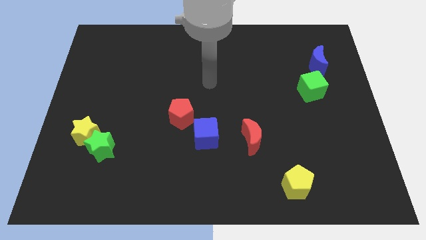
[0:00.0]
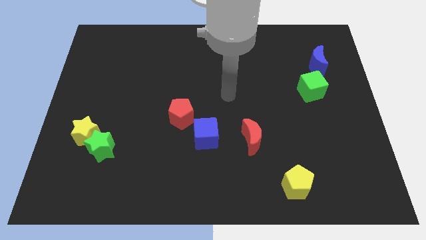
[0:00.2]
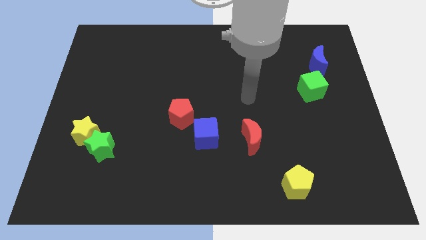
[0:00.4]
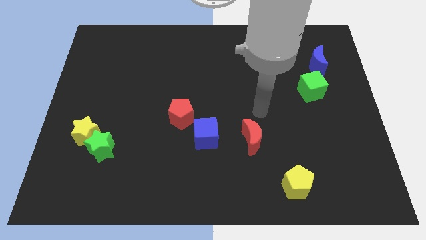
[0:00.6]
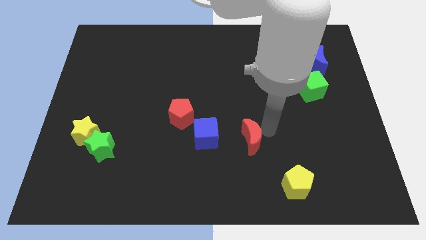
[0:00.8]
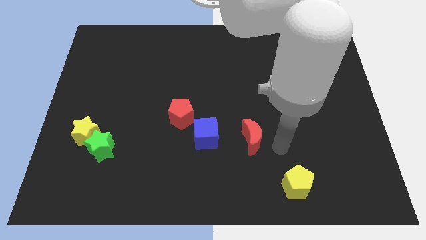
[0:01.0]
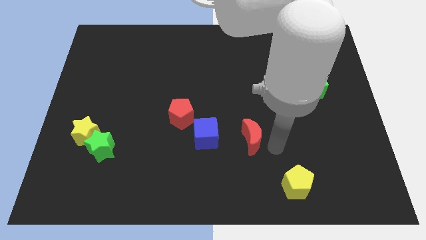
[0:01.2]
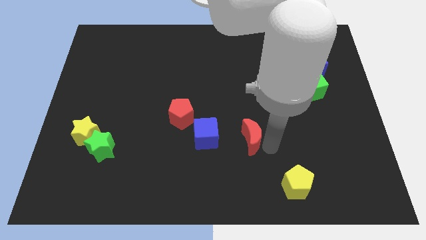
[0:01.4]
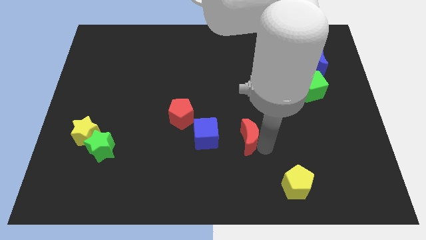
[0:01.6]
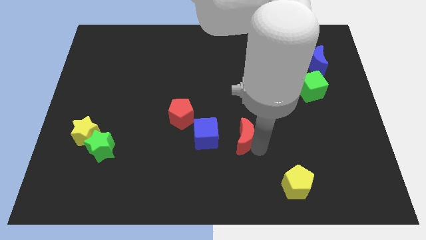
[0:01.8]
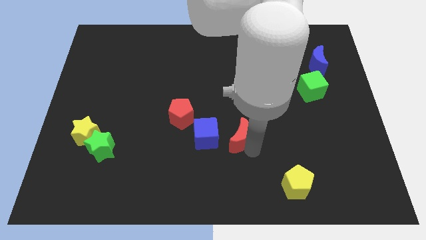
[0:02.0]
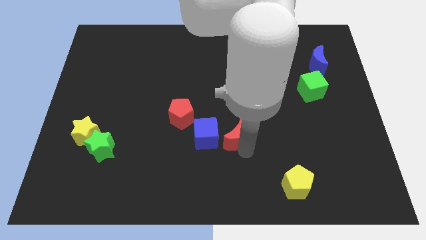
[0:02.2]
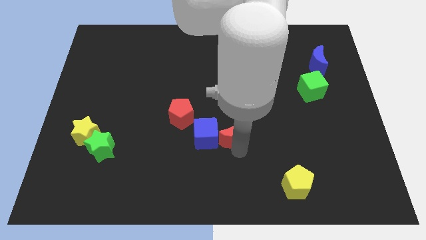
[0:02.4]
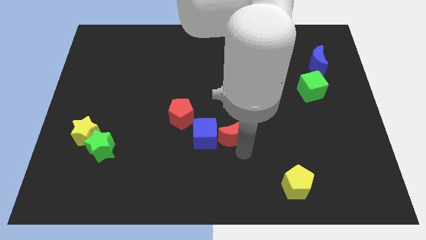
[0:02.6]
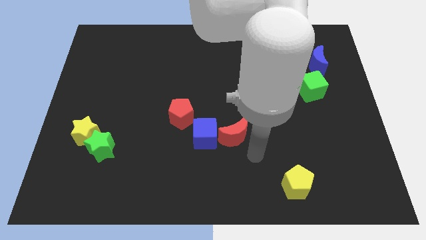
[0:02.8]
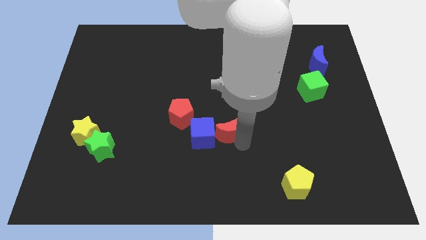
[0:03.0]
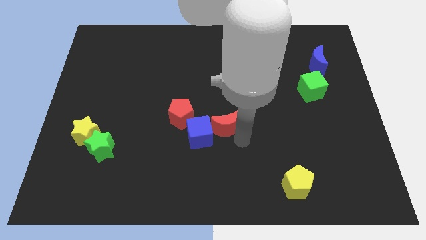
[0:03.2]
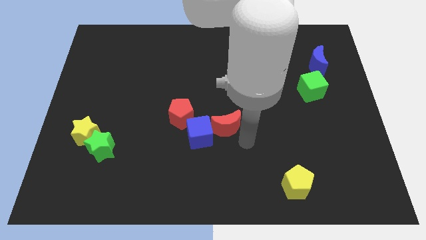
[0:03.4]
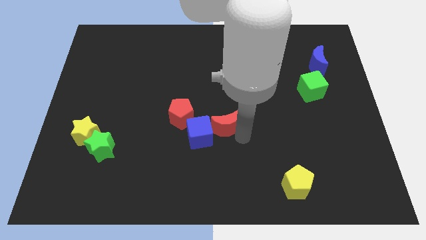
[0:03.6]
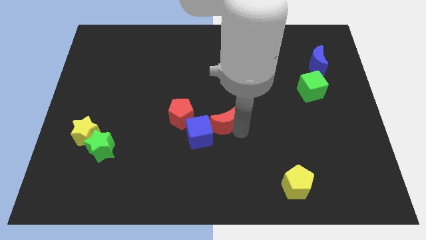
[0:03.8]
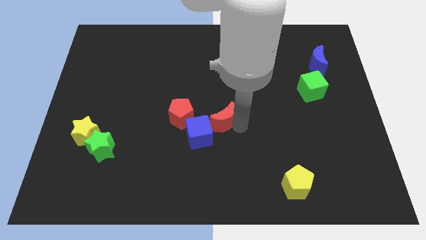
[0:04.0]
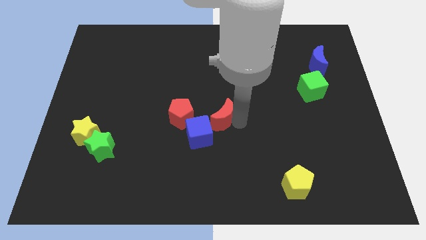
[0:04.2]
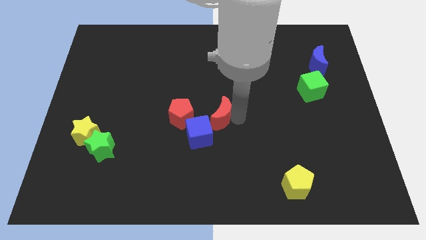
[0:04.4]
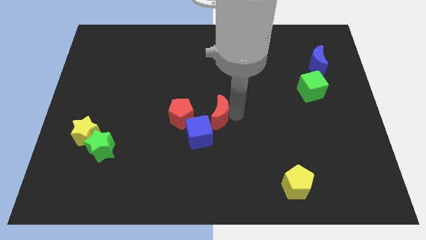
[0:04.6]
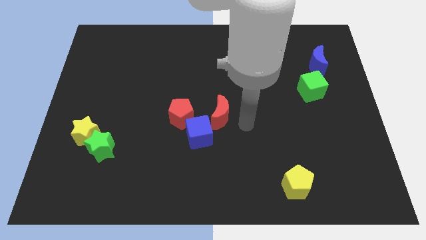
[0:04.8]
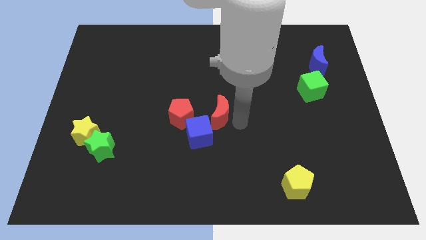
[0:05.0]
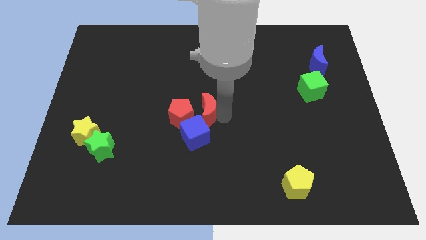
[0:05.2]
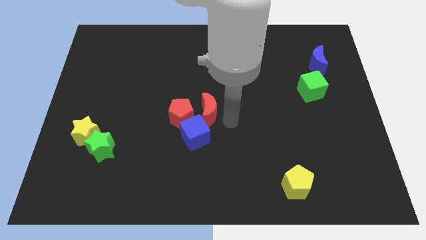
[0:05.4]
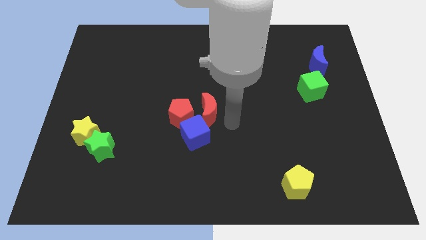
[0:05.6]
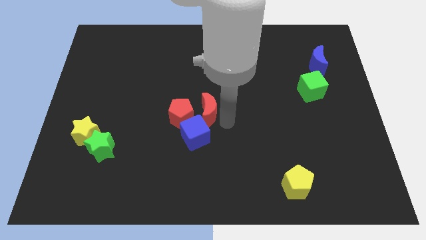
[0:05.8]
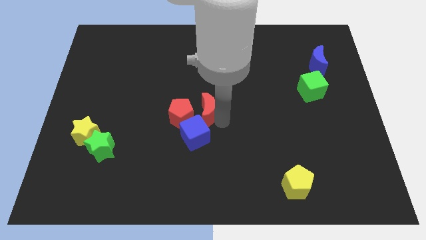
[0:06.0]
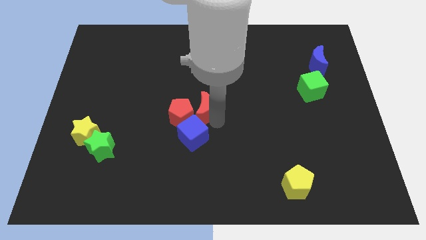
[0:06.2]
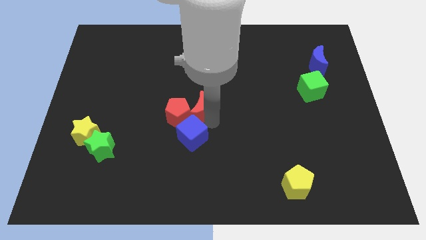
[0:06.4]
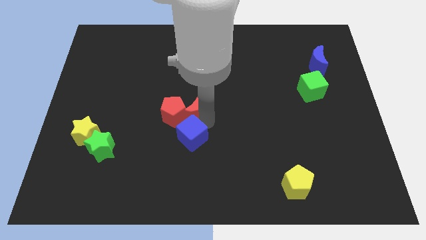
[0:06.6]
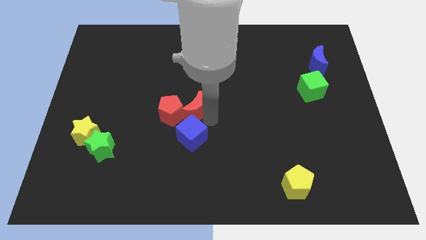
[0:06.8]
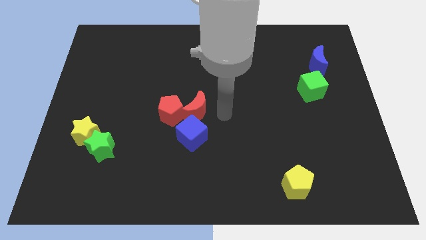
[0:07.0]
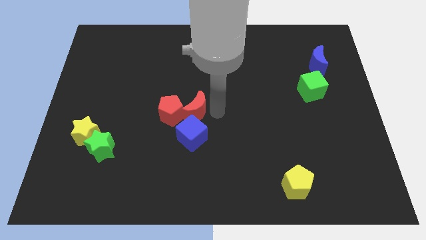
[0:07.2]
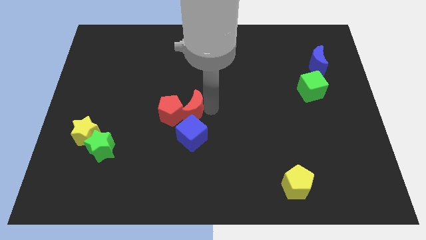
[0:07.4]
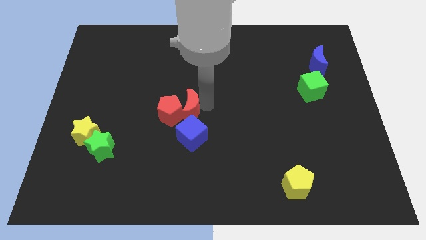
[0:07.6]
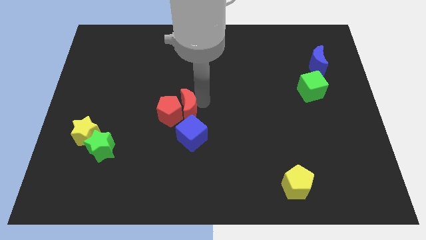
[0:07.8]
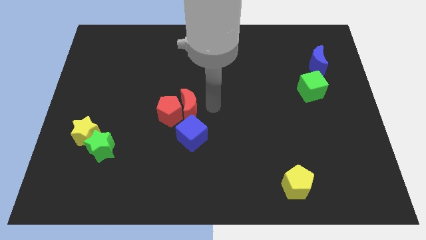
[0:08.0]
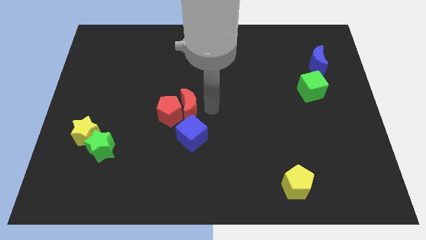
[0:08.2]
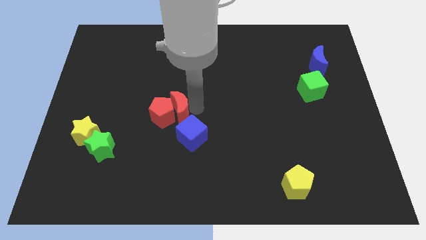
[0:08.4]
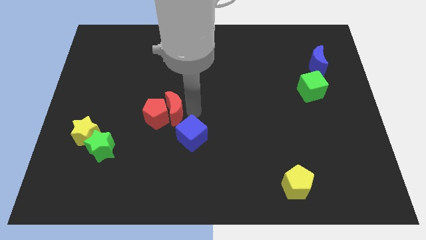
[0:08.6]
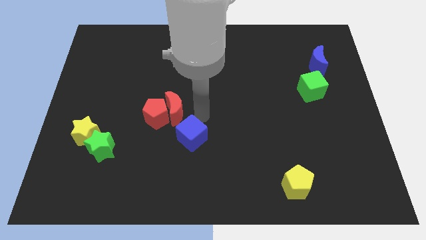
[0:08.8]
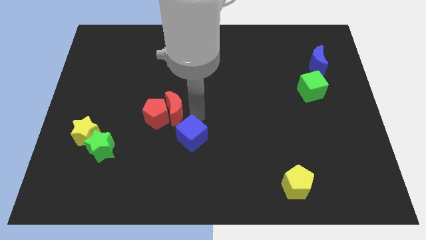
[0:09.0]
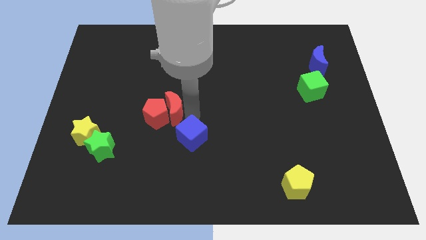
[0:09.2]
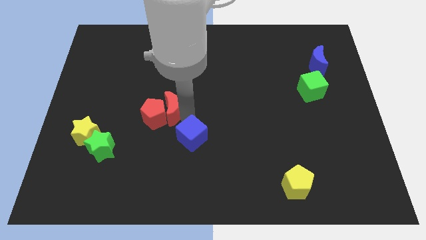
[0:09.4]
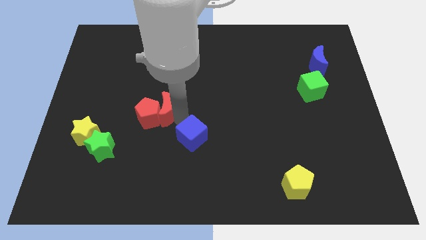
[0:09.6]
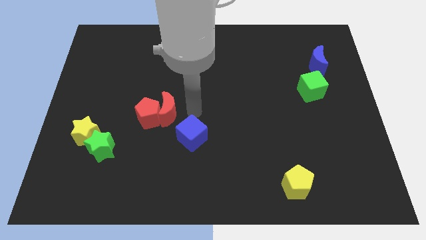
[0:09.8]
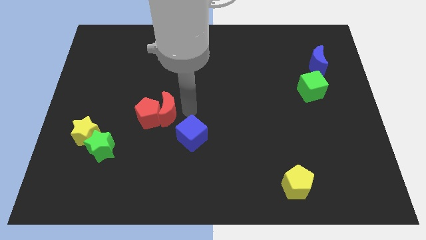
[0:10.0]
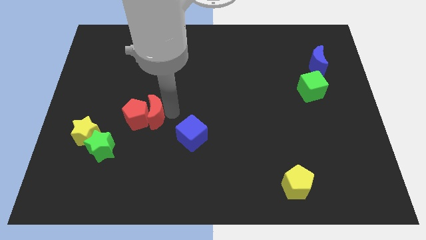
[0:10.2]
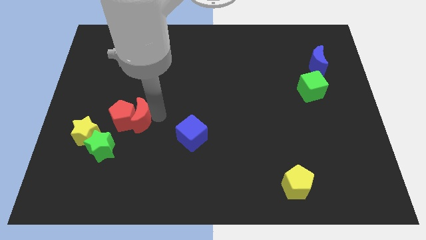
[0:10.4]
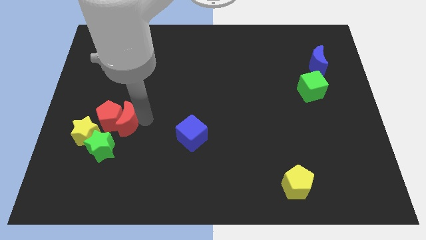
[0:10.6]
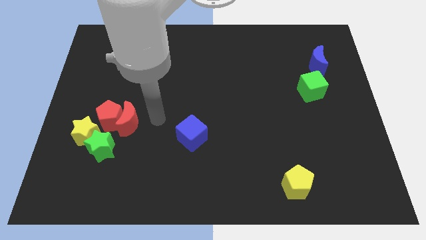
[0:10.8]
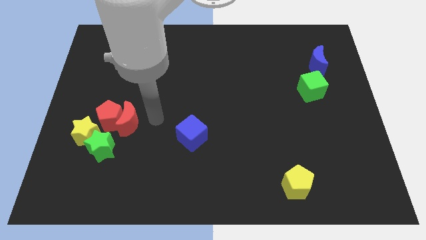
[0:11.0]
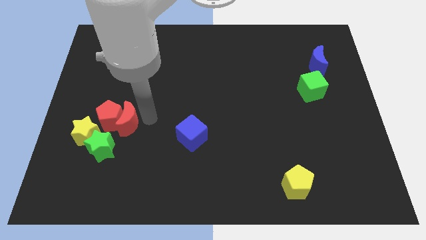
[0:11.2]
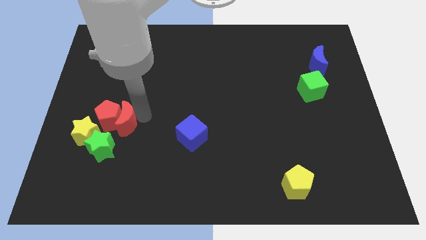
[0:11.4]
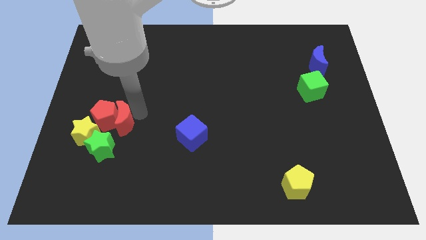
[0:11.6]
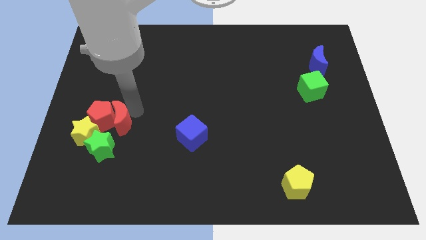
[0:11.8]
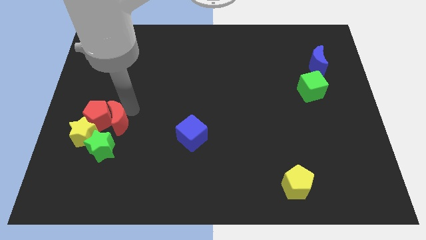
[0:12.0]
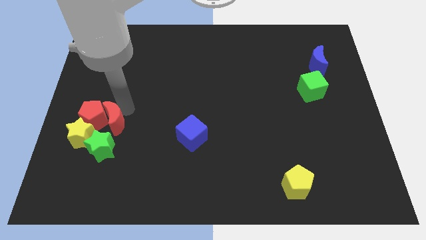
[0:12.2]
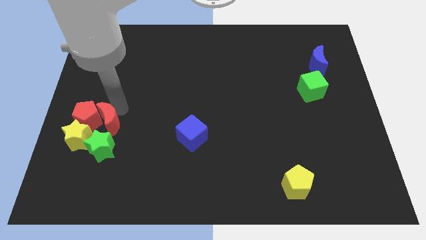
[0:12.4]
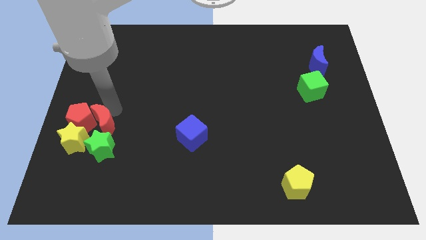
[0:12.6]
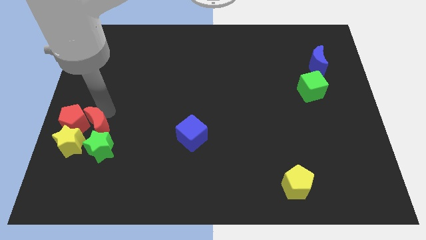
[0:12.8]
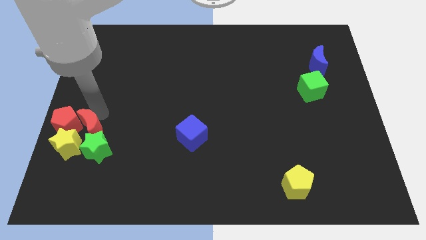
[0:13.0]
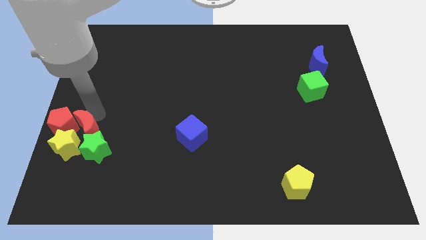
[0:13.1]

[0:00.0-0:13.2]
put the red moon to the yellow star
